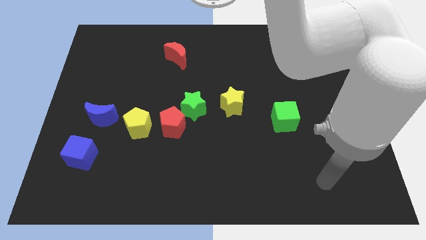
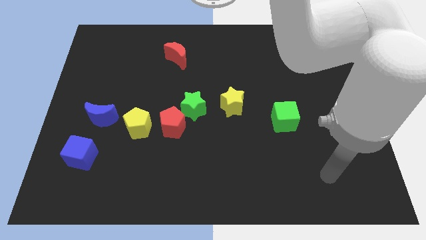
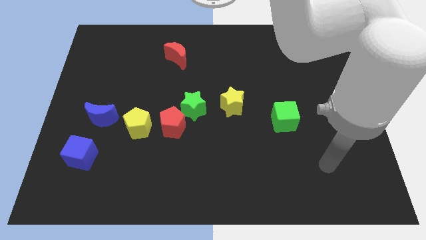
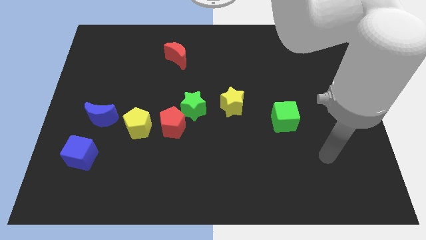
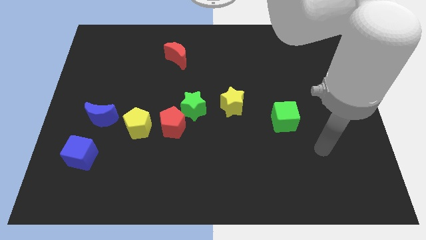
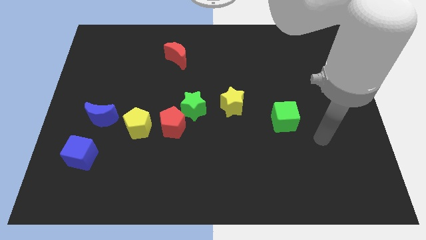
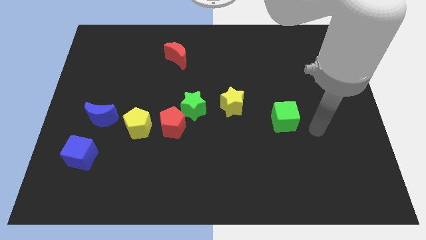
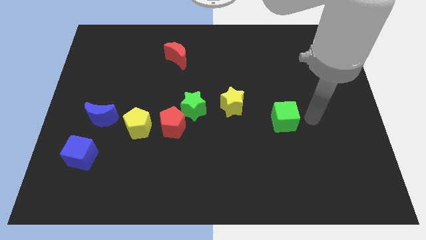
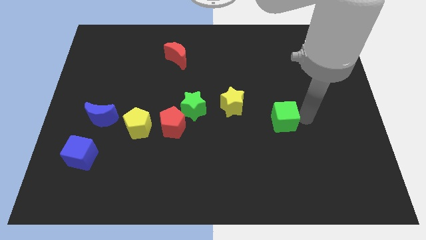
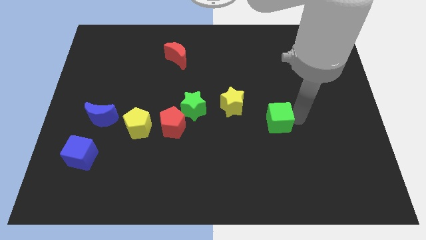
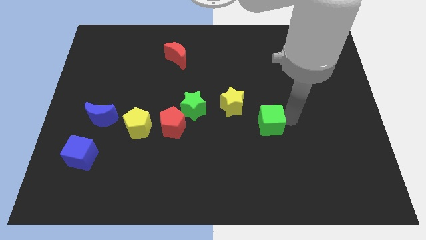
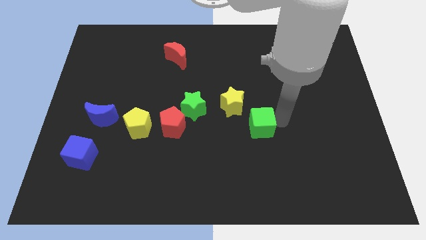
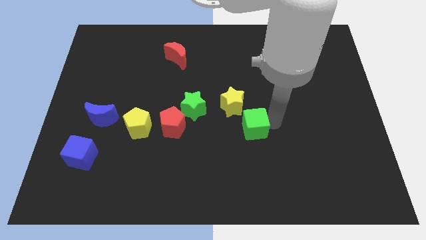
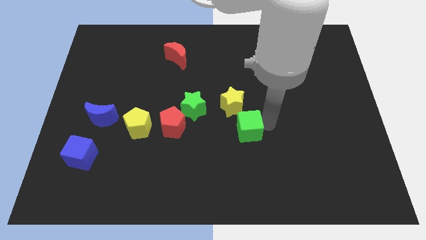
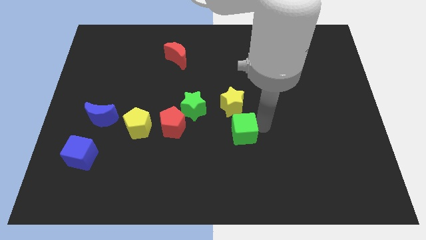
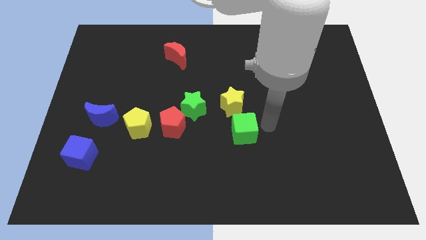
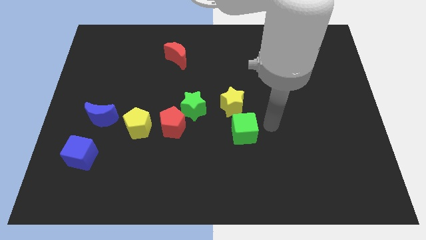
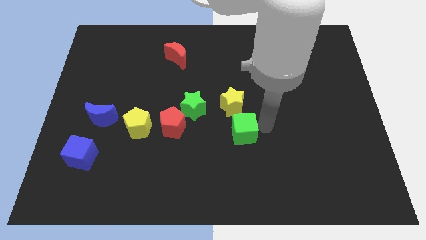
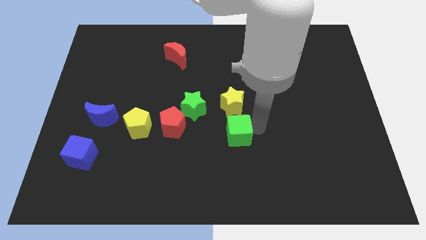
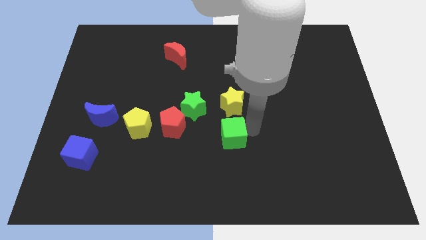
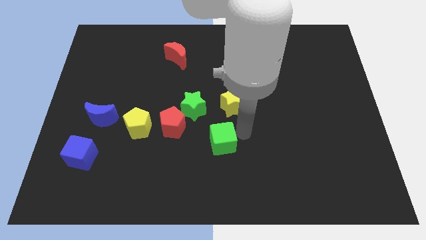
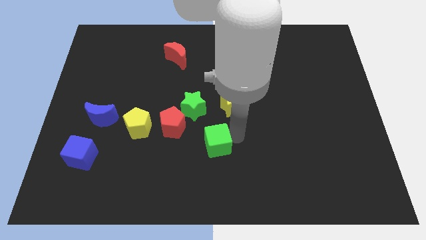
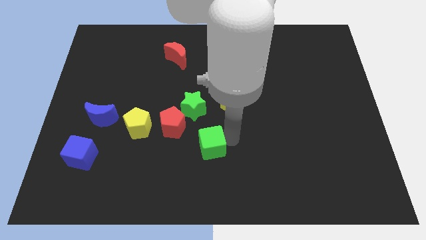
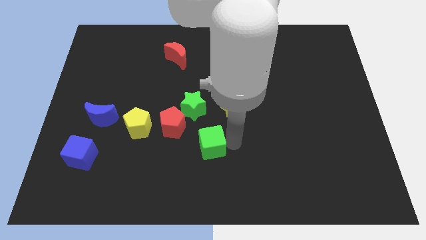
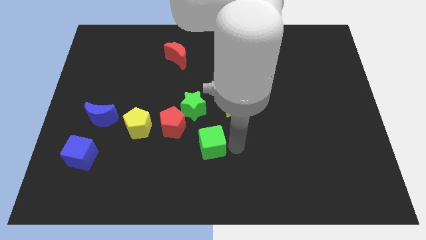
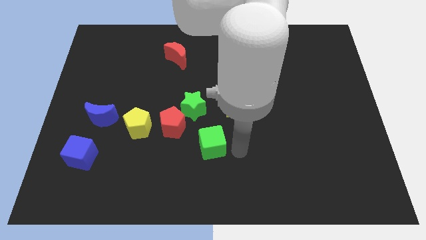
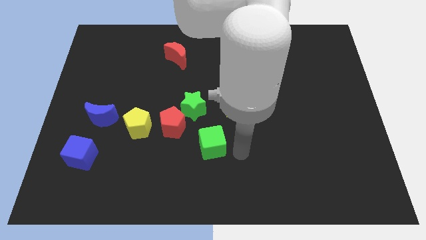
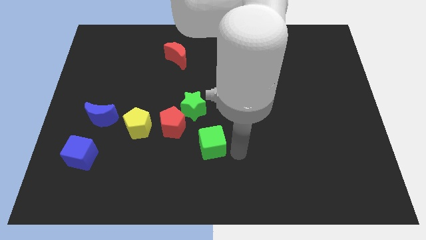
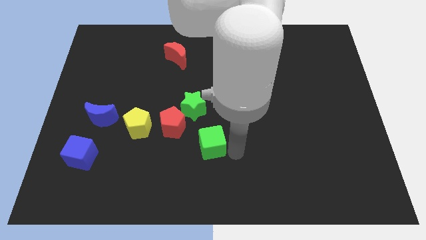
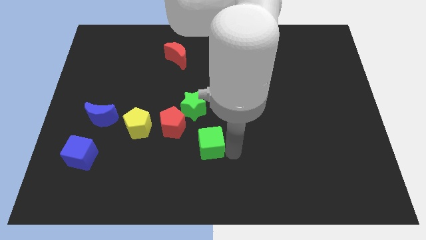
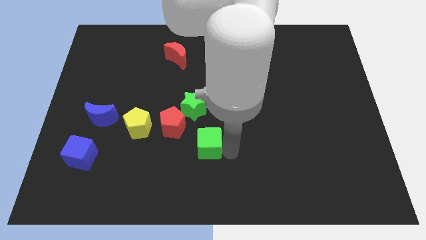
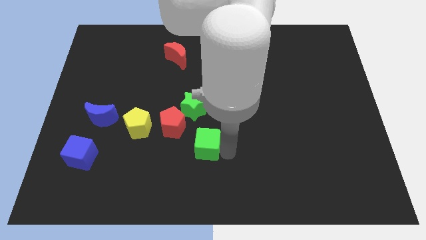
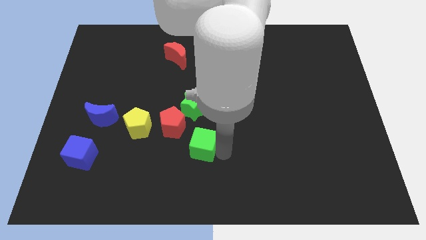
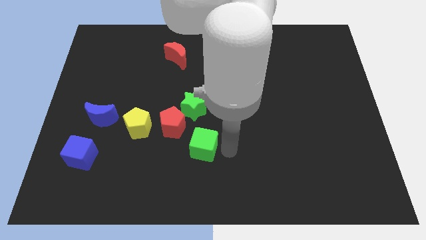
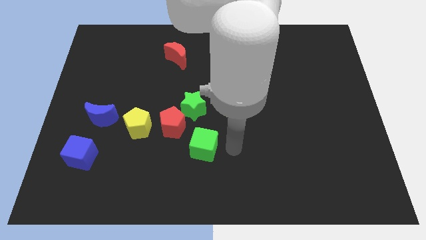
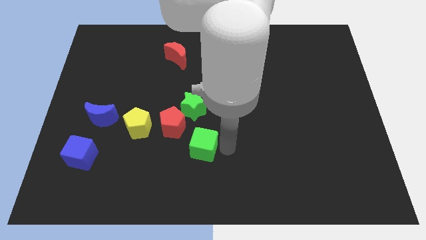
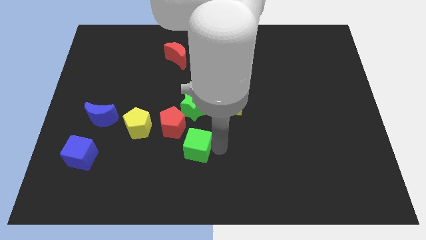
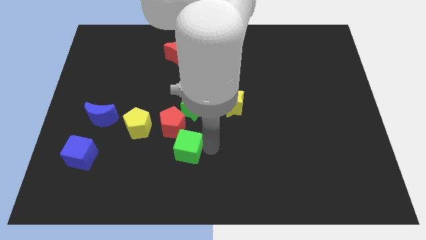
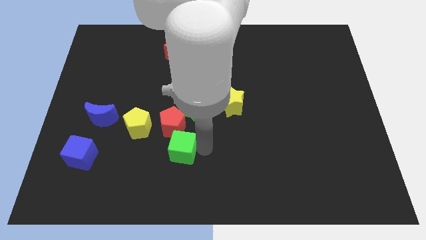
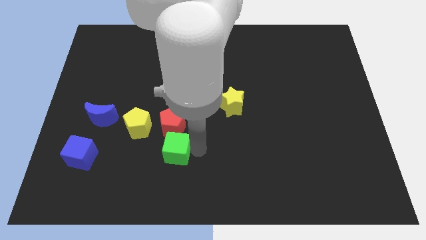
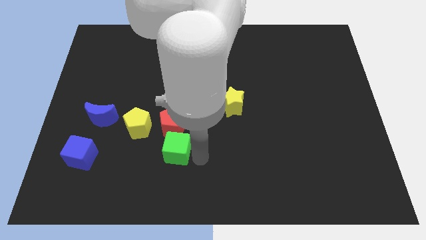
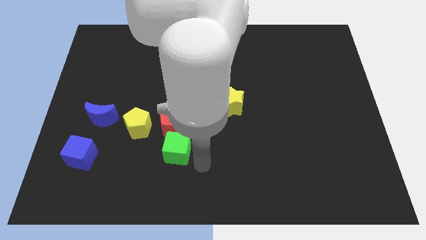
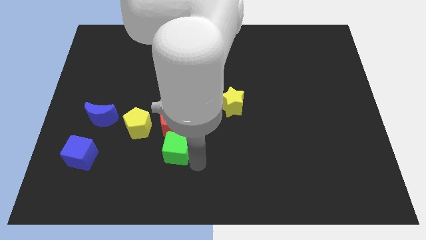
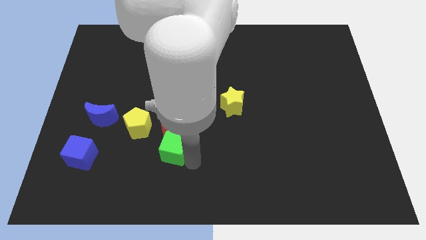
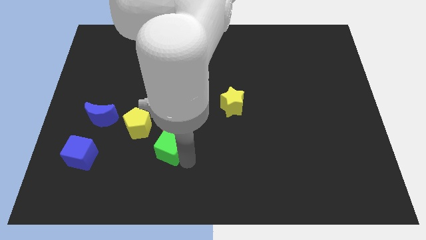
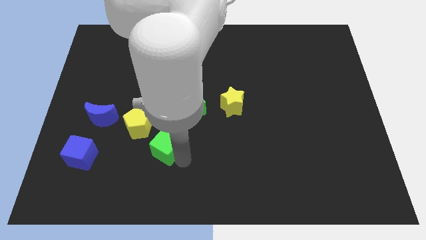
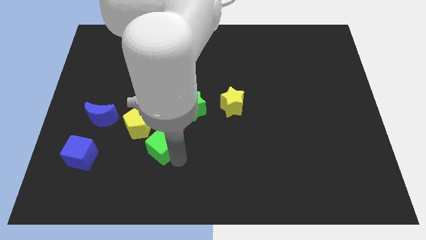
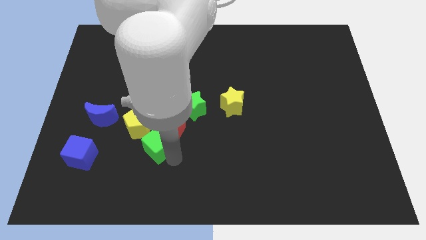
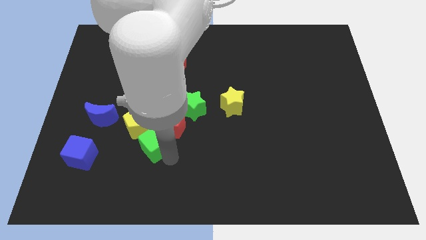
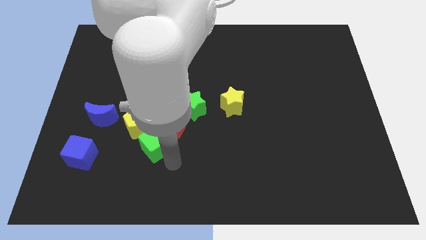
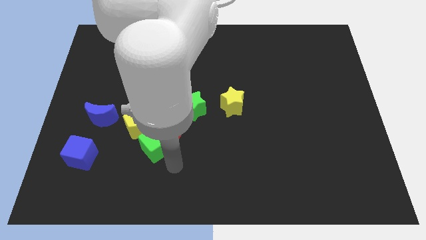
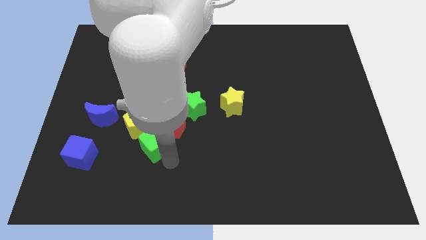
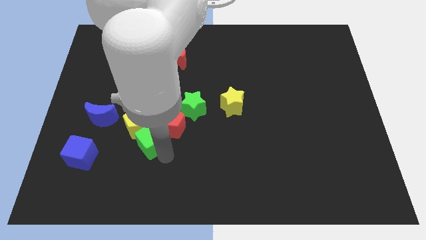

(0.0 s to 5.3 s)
put the green cube to the yellow pentagon

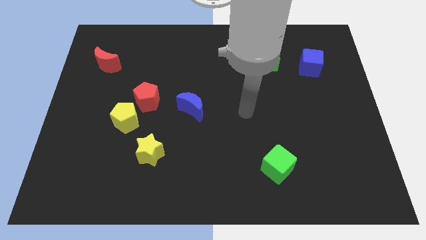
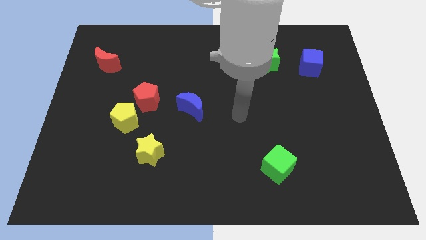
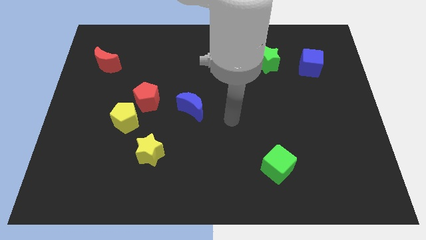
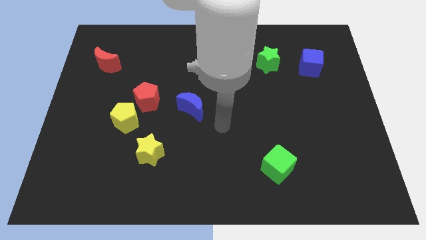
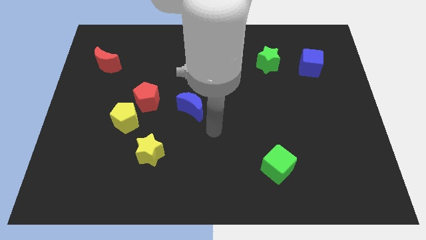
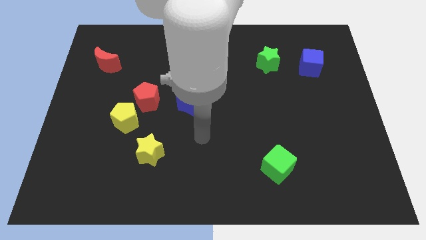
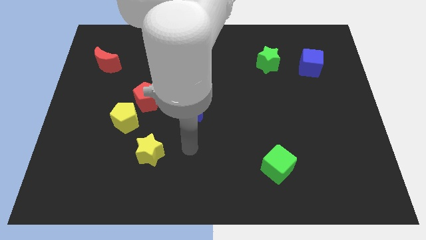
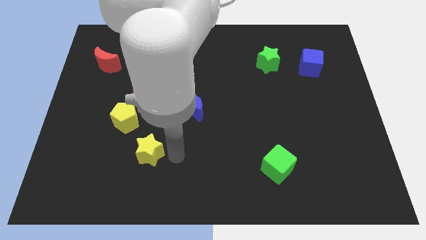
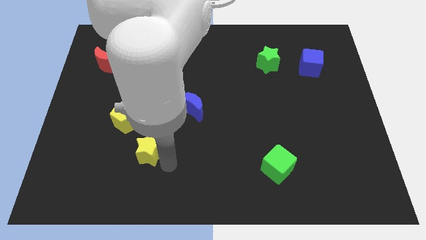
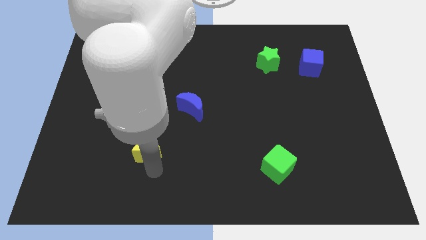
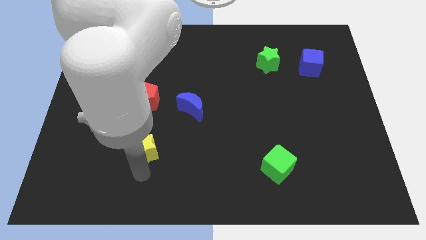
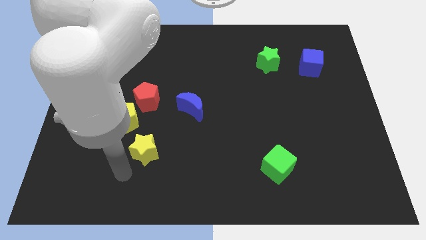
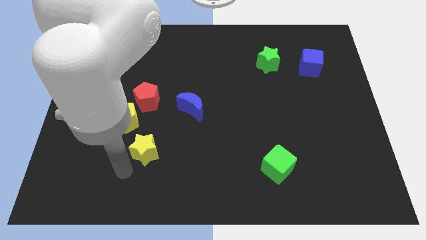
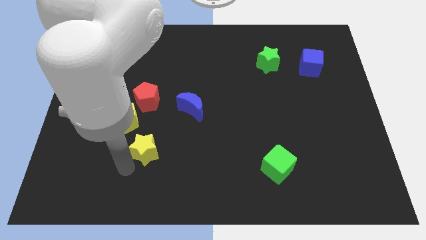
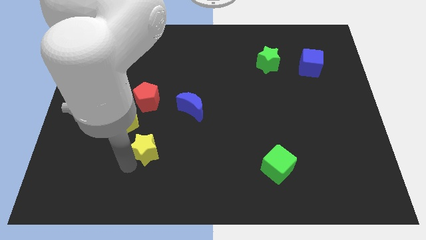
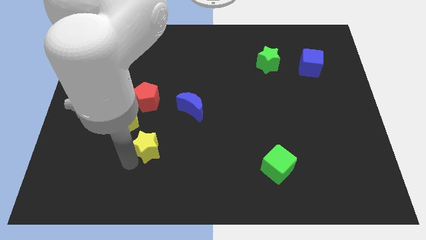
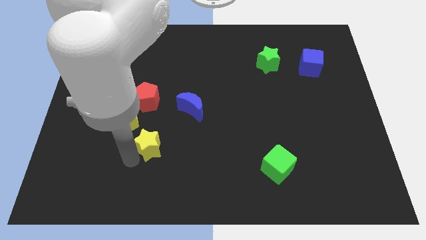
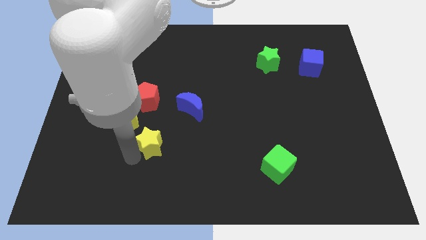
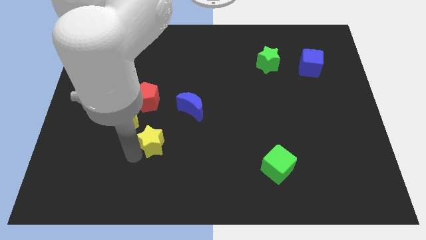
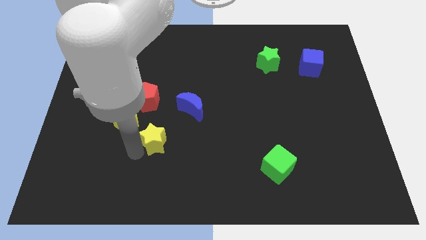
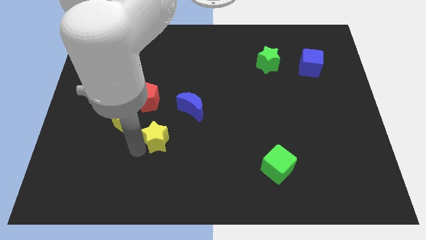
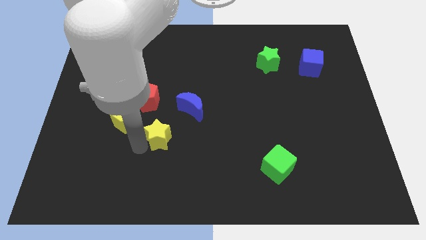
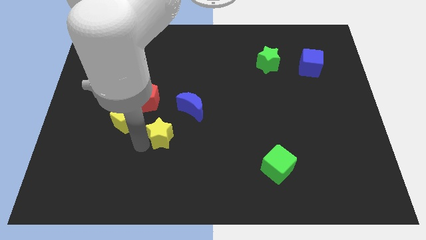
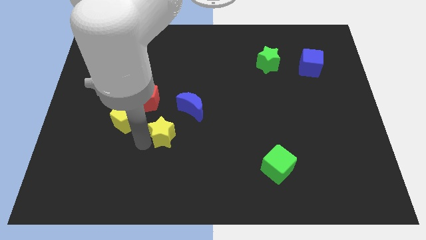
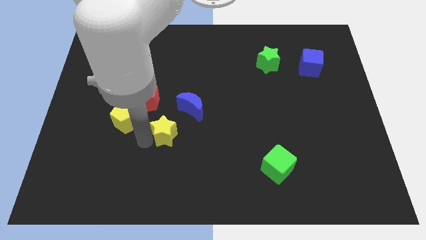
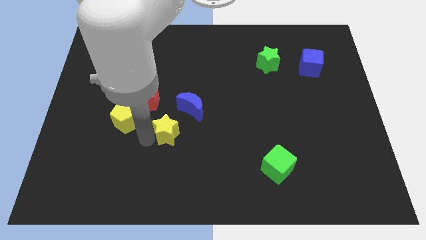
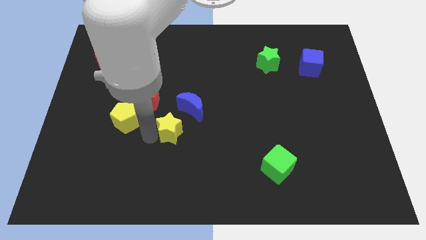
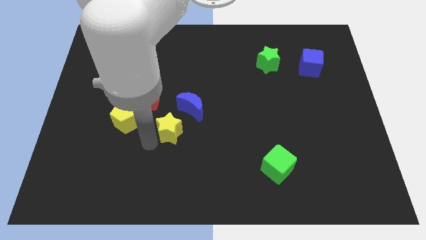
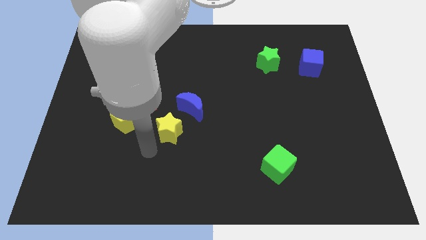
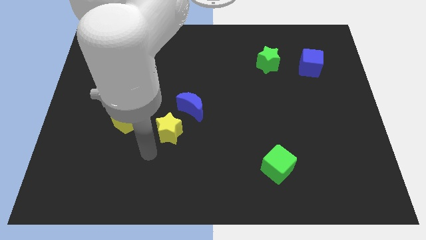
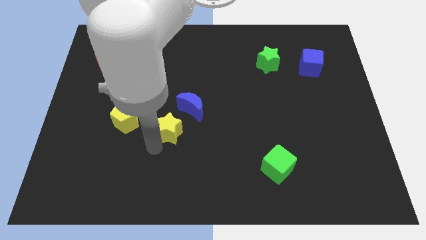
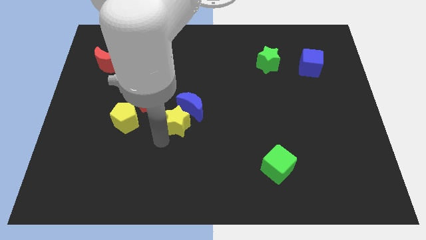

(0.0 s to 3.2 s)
put the yellow star close to the blue moon
